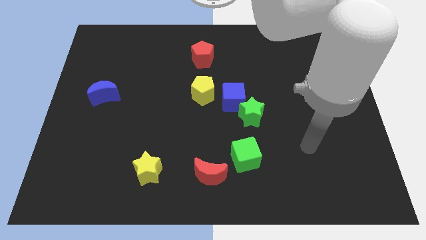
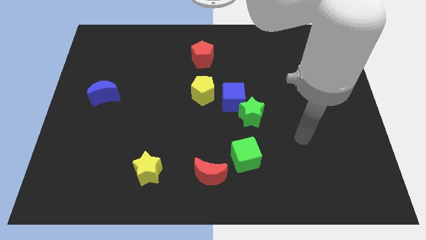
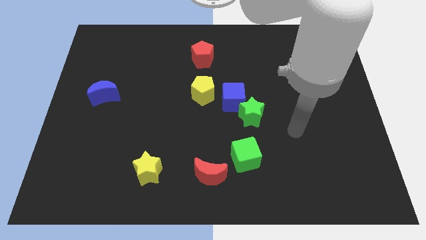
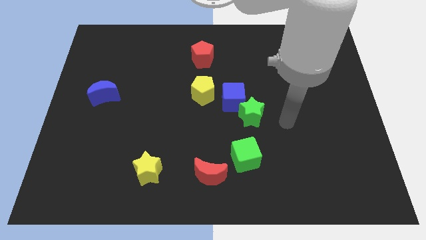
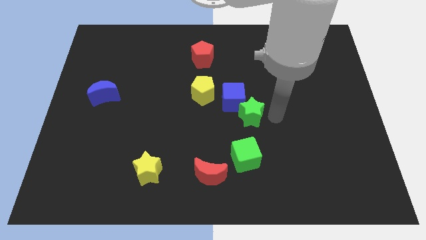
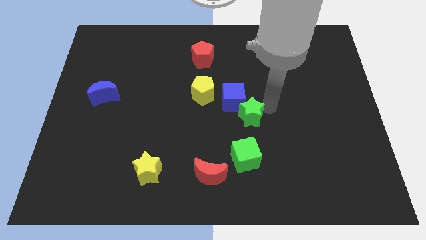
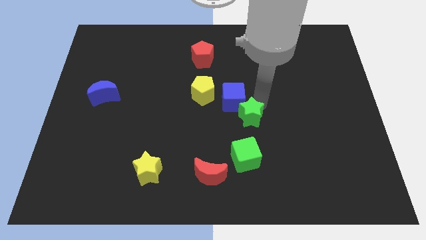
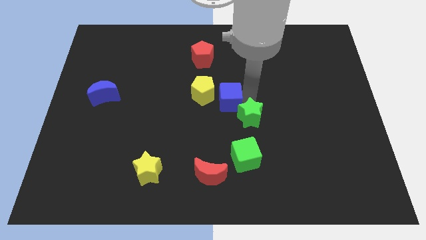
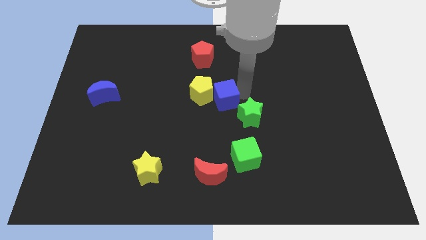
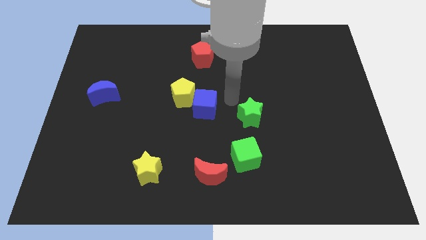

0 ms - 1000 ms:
separate the green star from the blue cube

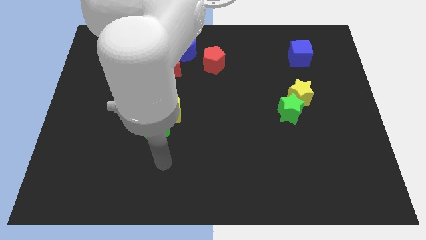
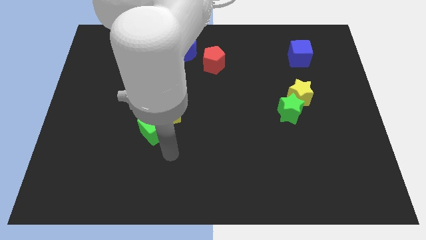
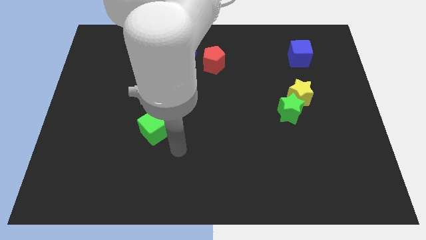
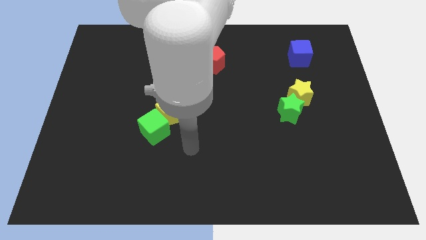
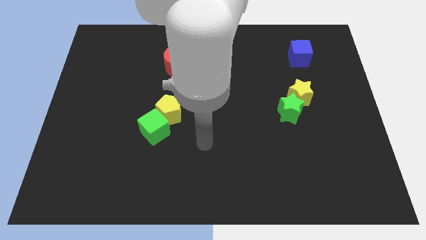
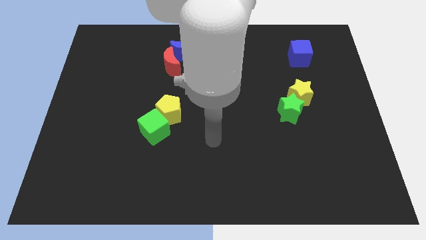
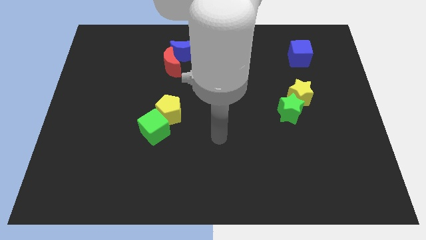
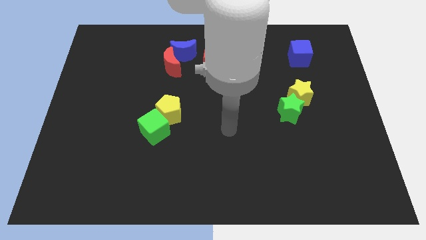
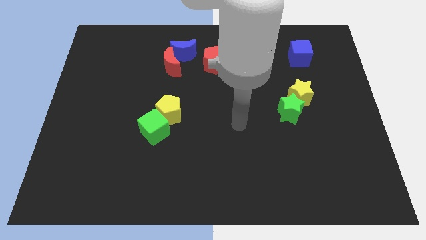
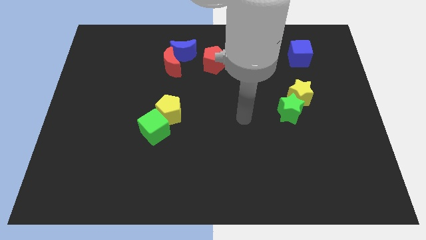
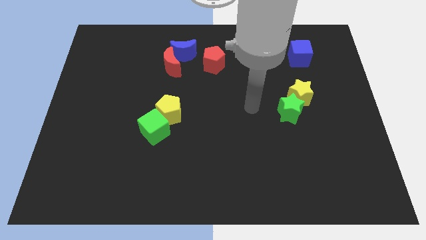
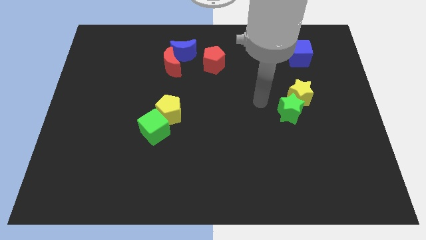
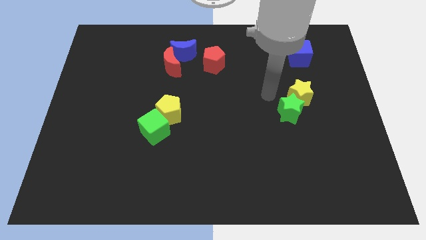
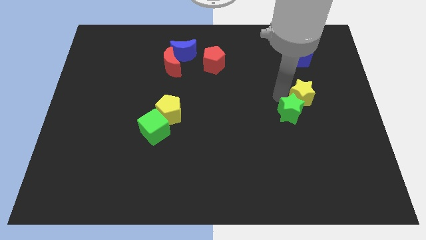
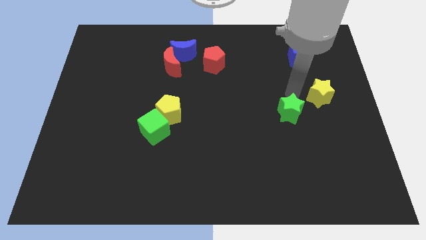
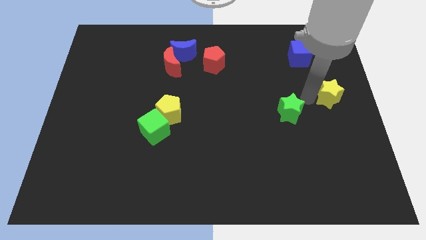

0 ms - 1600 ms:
pull the green star apart from the yellow star

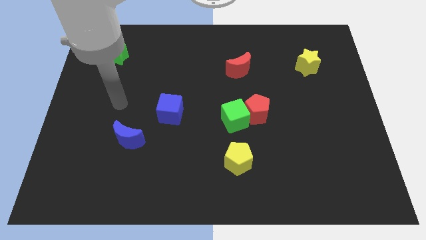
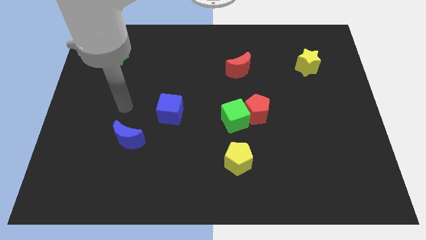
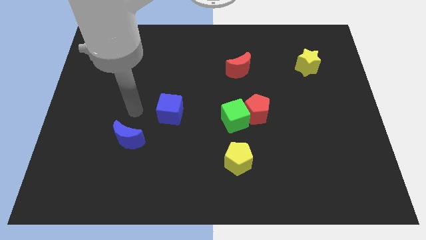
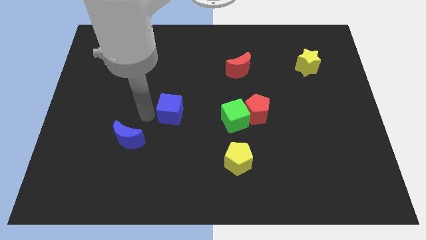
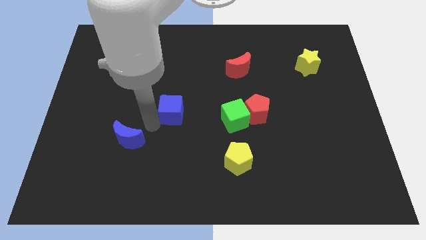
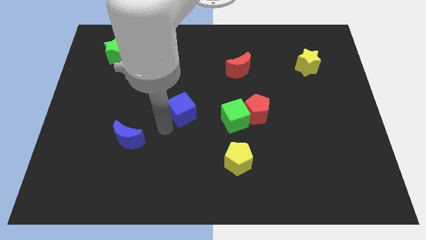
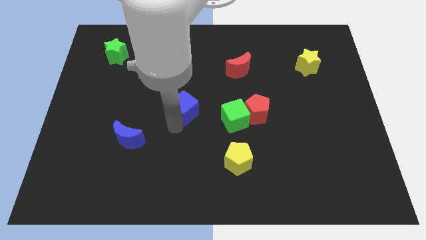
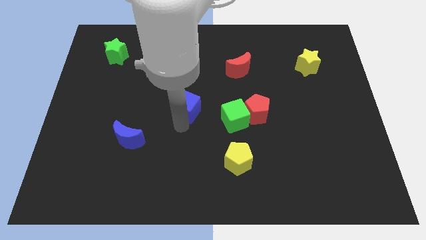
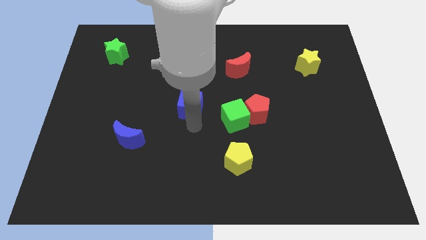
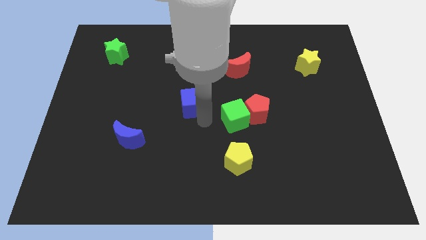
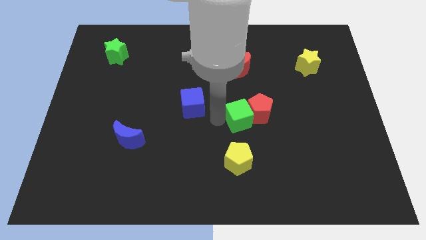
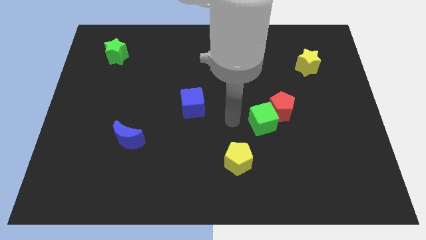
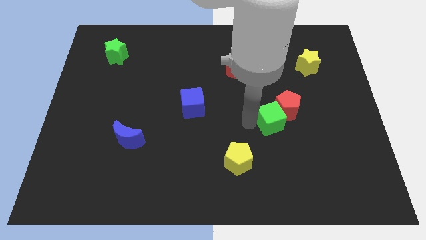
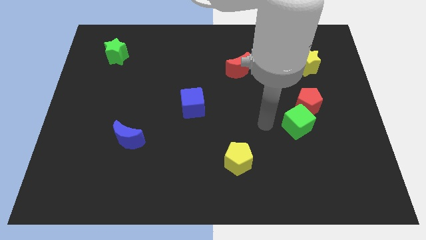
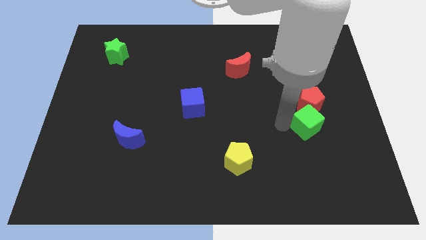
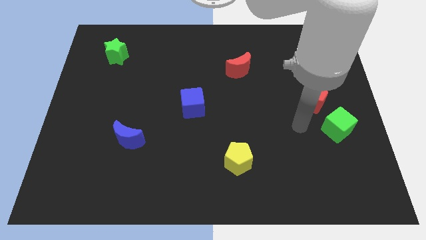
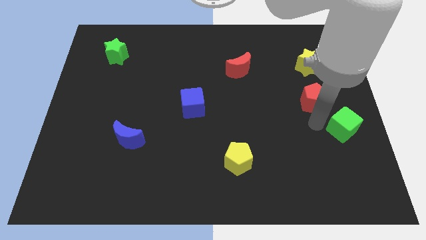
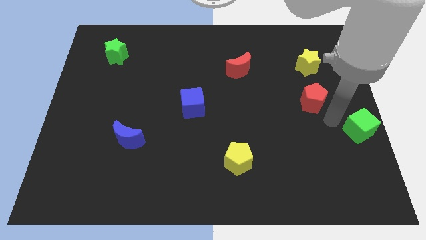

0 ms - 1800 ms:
separate the red pentagon from the green cube

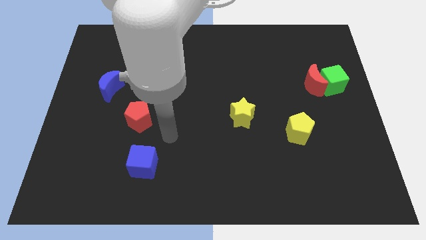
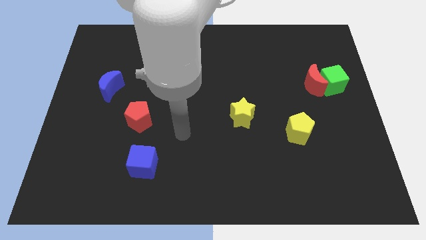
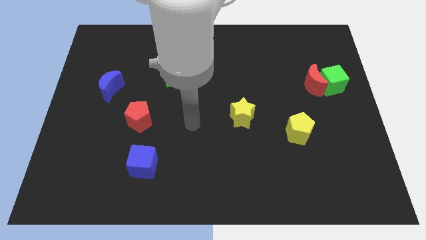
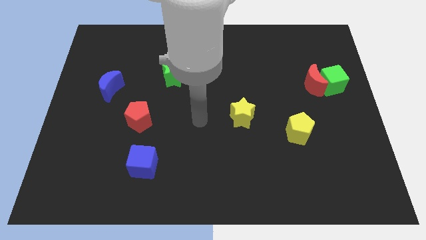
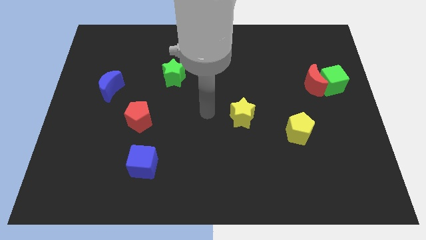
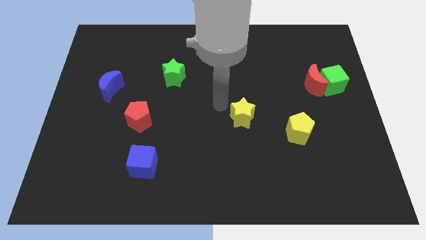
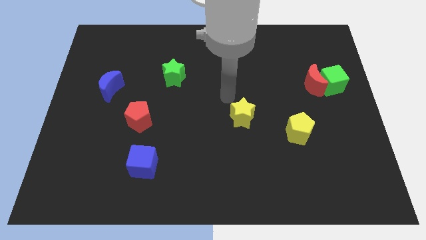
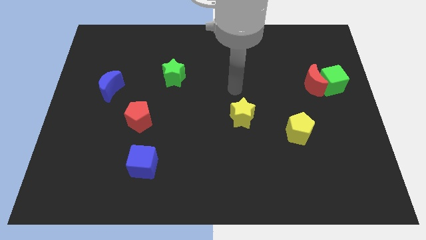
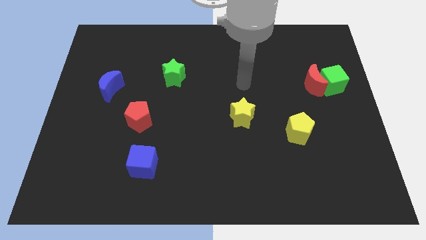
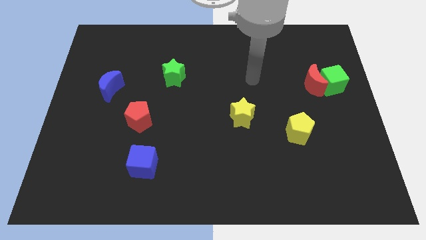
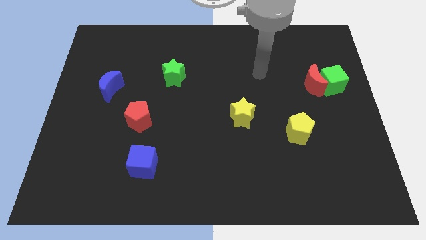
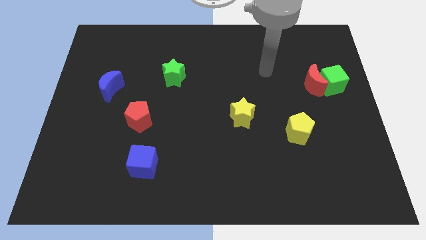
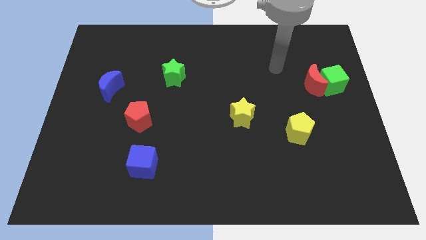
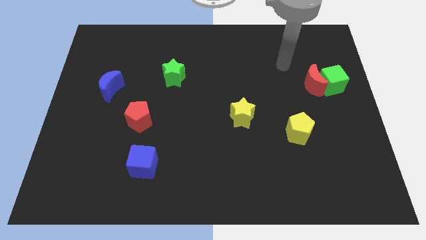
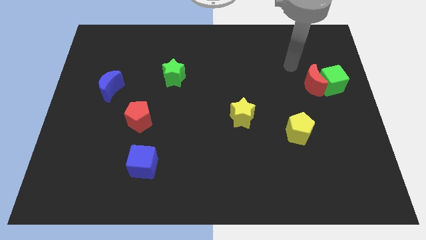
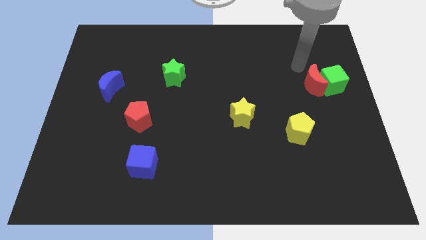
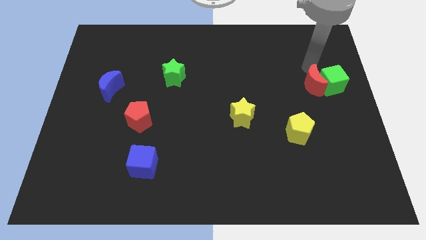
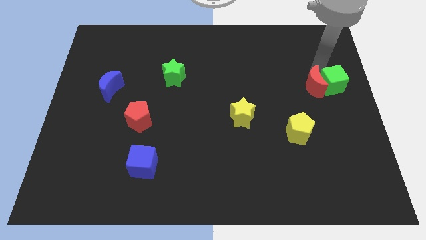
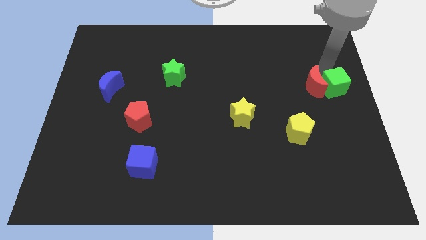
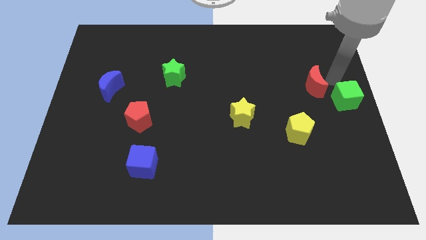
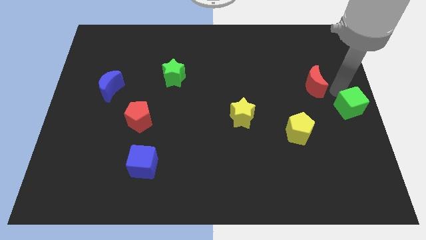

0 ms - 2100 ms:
separate the red moon from the green cube

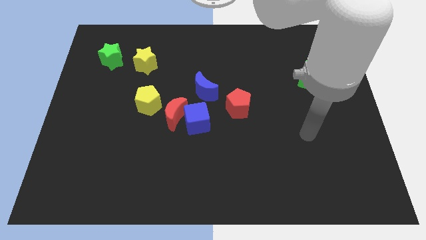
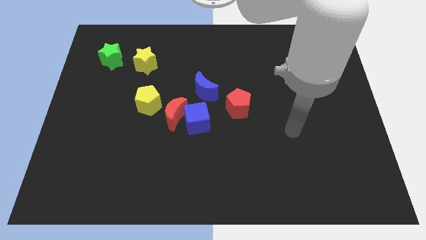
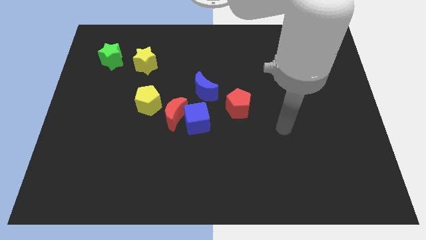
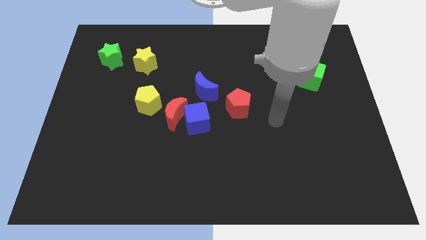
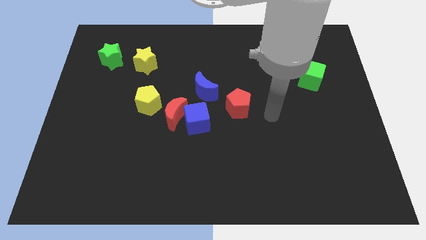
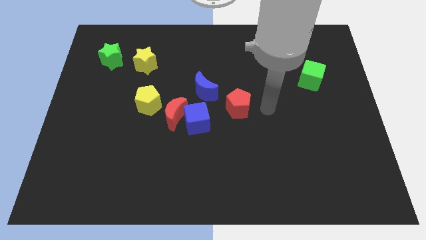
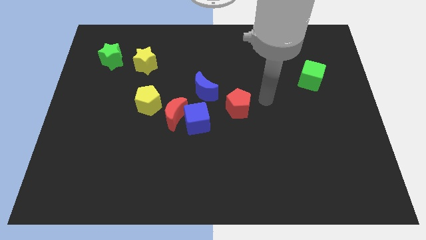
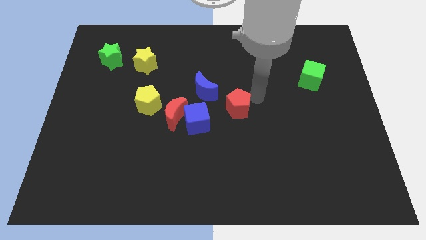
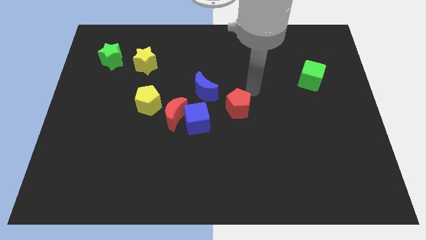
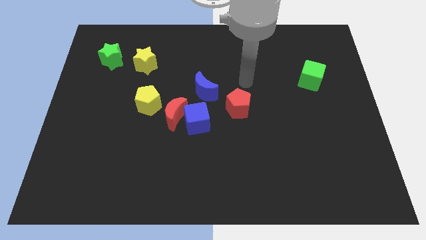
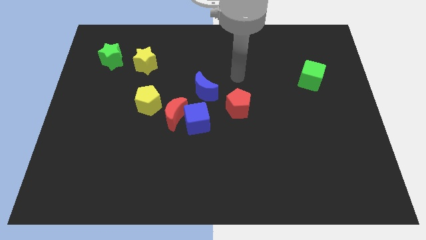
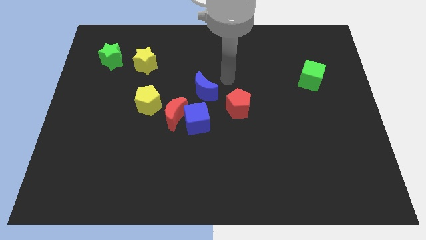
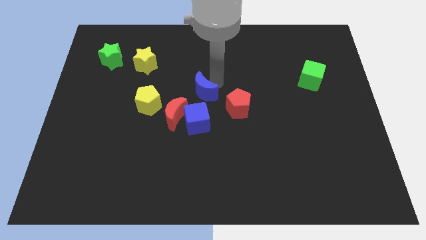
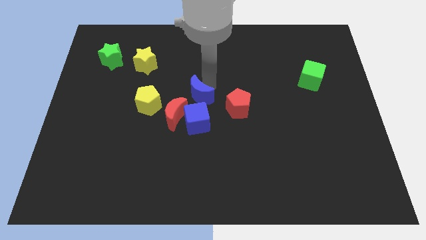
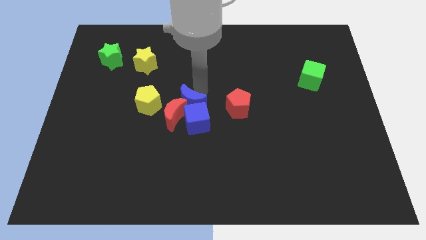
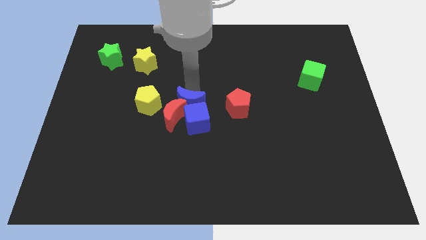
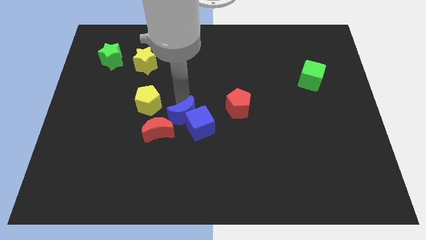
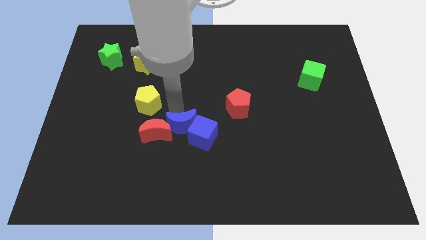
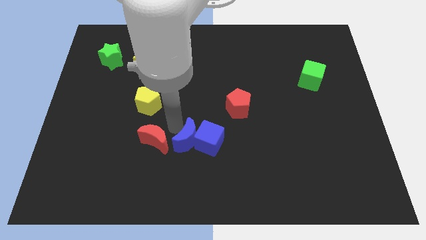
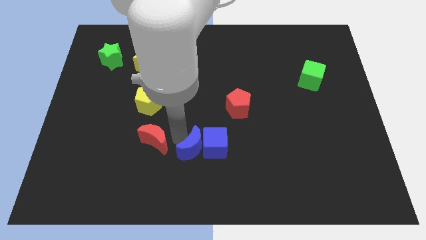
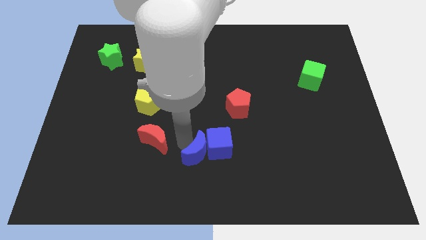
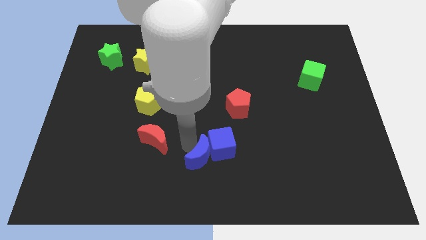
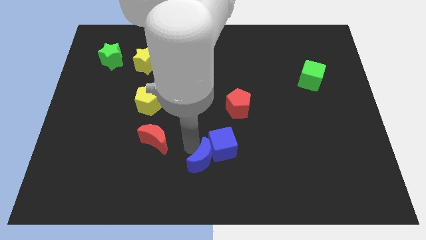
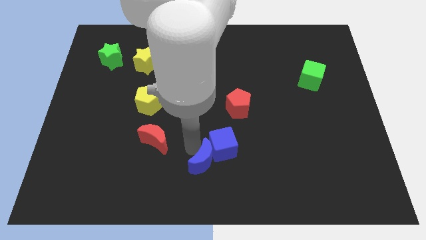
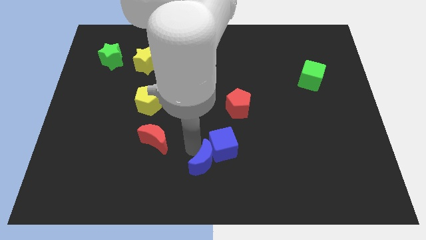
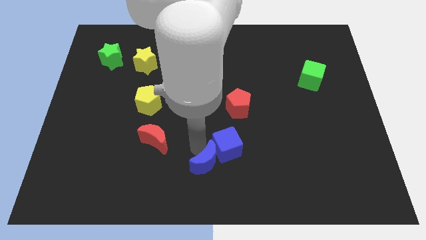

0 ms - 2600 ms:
move the blue cube away from the red moon and blue moon

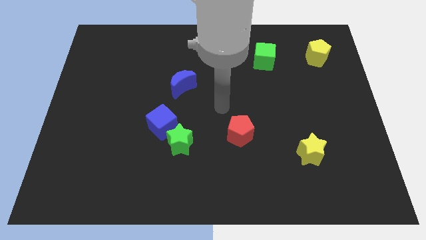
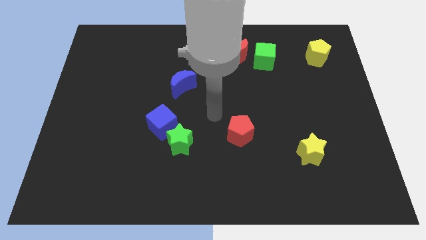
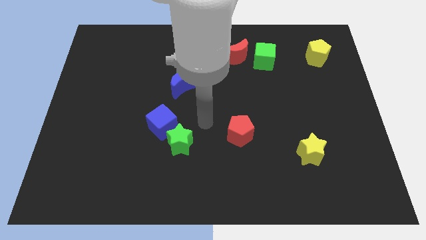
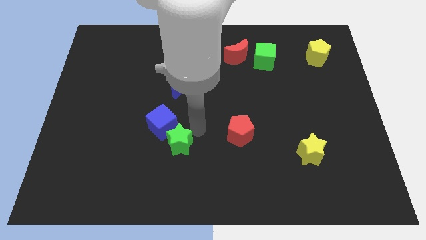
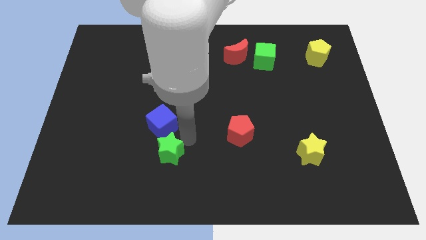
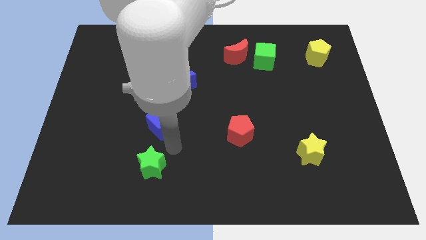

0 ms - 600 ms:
separate the blue cube from the green star
